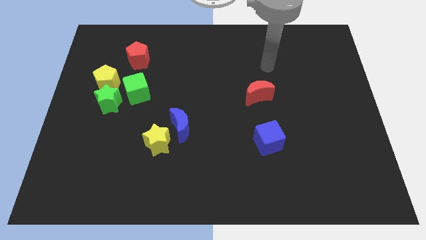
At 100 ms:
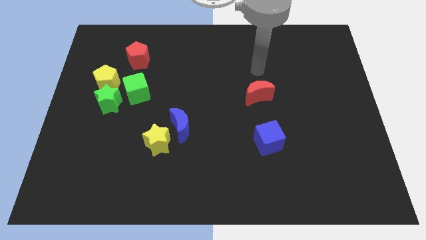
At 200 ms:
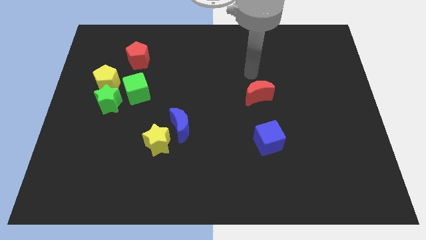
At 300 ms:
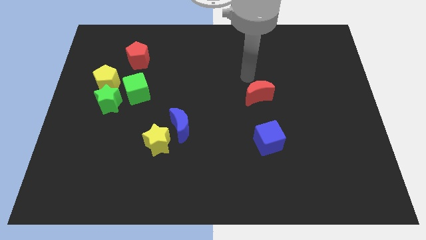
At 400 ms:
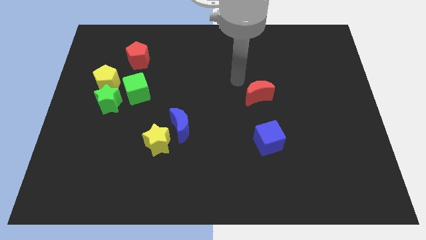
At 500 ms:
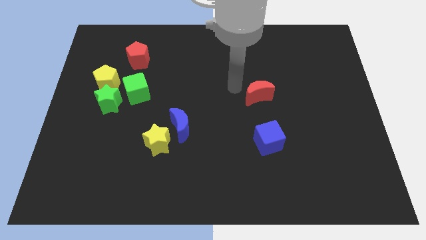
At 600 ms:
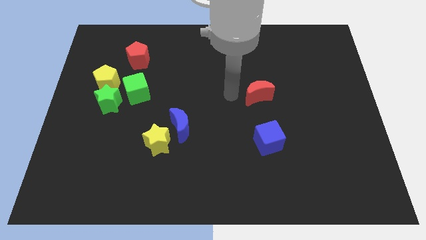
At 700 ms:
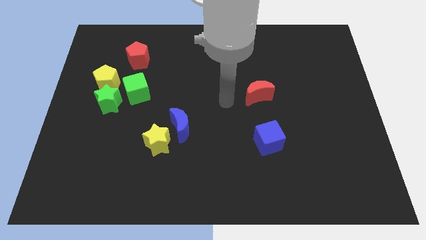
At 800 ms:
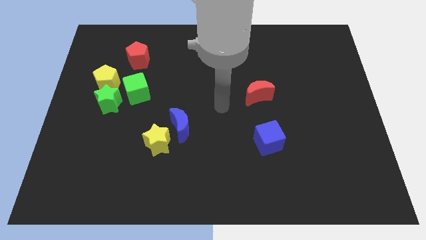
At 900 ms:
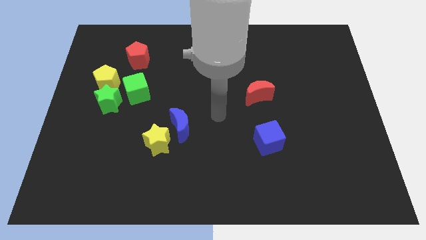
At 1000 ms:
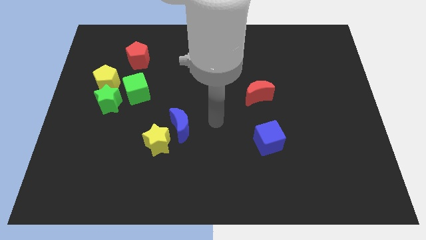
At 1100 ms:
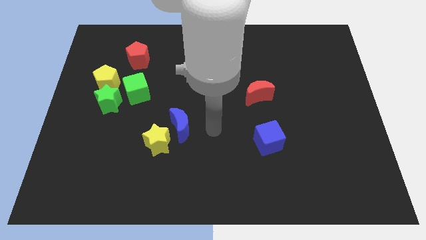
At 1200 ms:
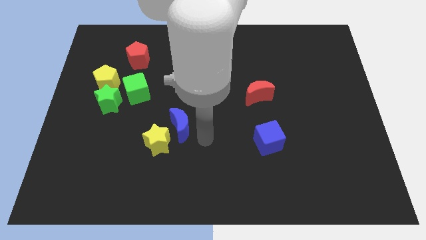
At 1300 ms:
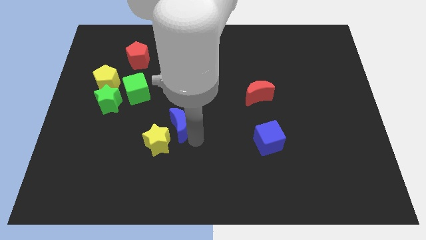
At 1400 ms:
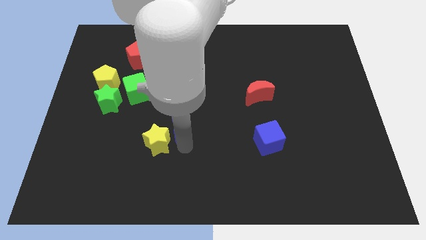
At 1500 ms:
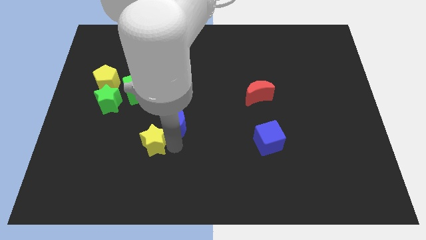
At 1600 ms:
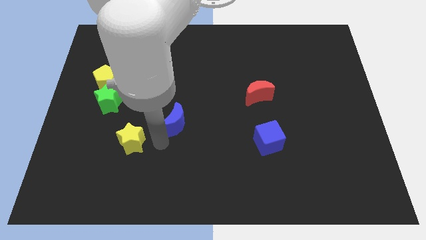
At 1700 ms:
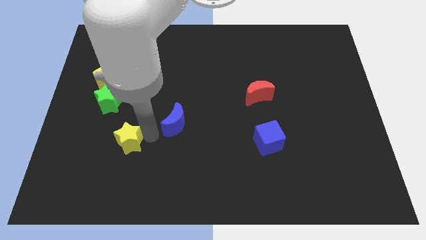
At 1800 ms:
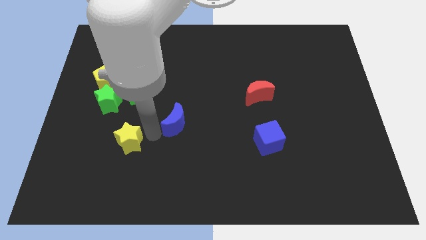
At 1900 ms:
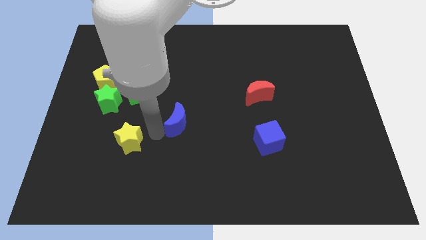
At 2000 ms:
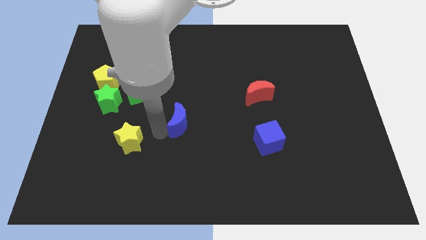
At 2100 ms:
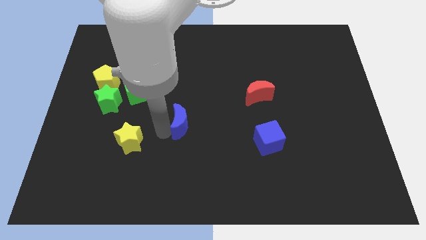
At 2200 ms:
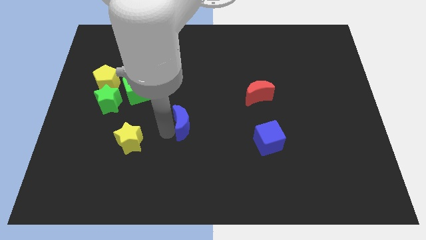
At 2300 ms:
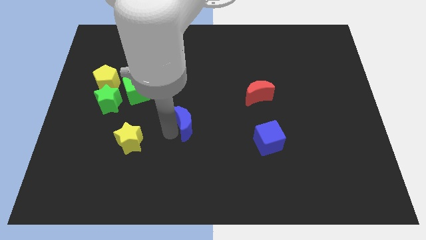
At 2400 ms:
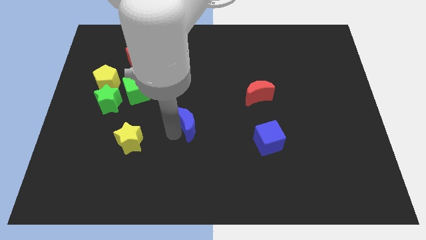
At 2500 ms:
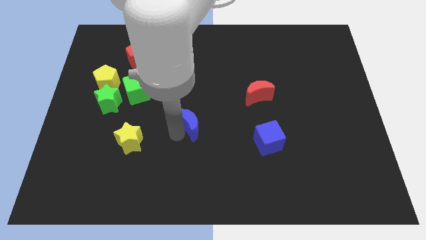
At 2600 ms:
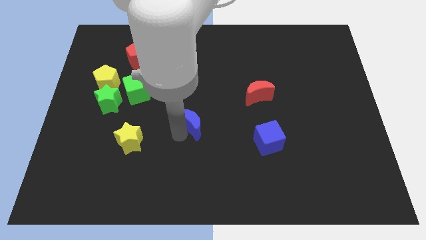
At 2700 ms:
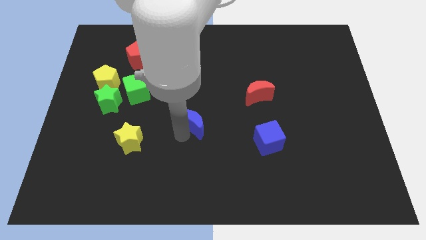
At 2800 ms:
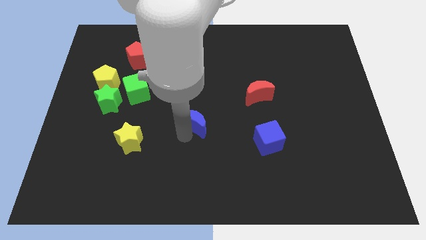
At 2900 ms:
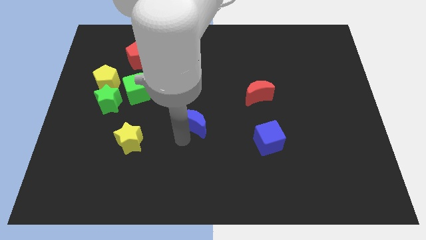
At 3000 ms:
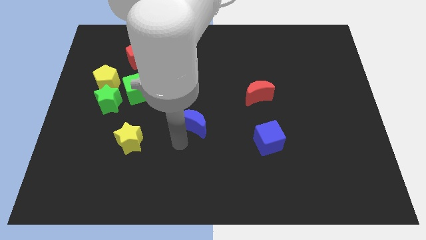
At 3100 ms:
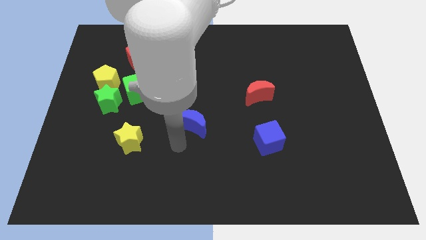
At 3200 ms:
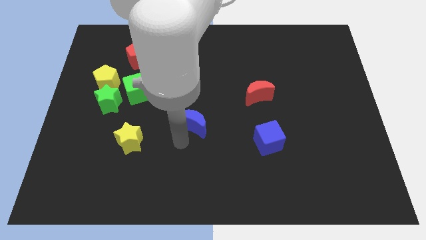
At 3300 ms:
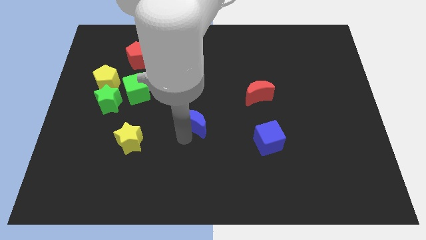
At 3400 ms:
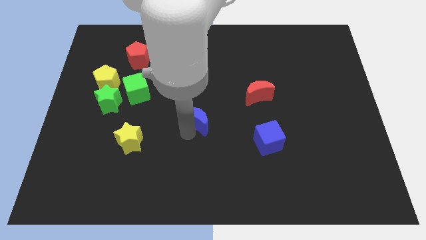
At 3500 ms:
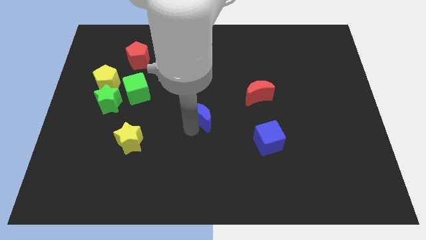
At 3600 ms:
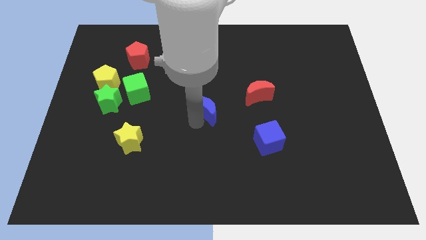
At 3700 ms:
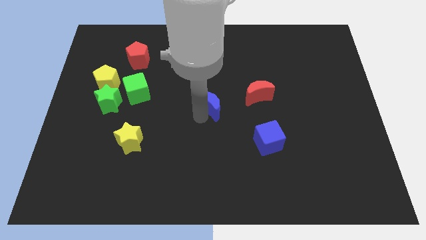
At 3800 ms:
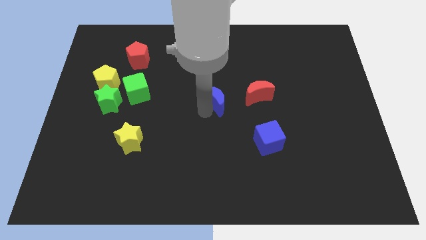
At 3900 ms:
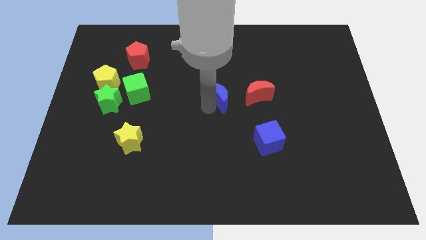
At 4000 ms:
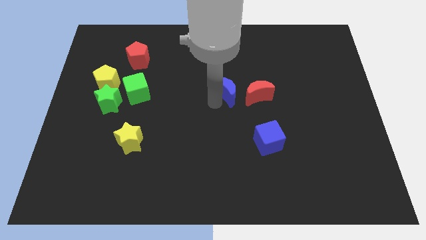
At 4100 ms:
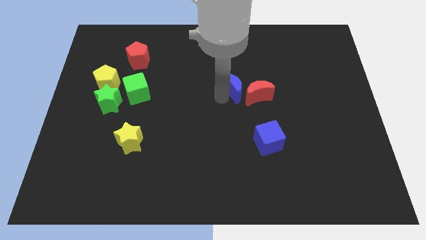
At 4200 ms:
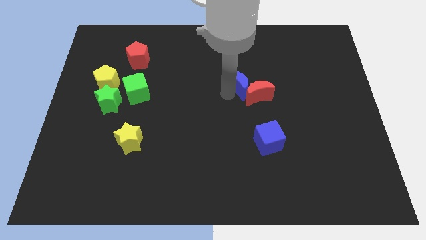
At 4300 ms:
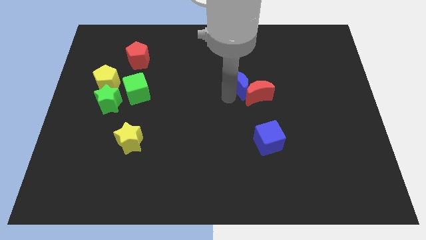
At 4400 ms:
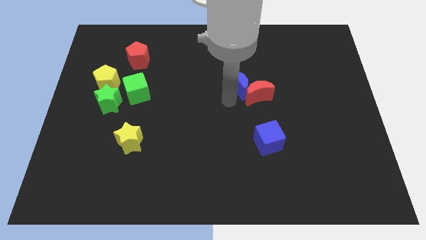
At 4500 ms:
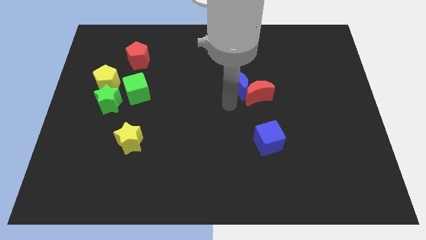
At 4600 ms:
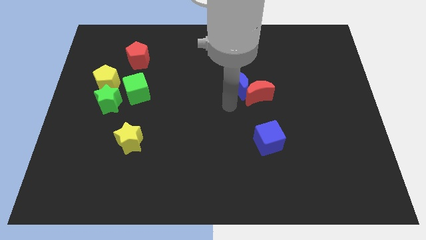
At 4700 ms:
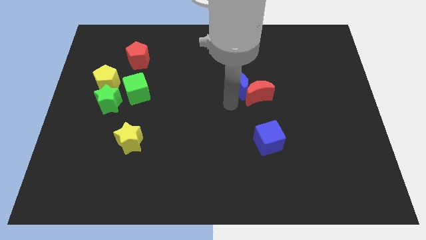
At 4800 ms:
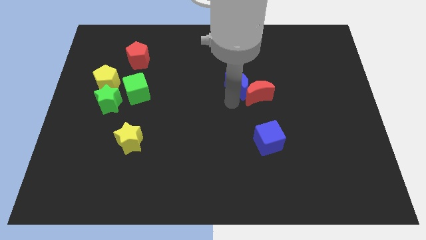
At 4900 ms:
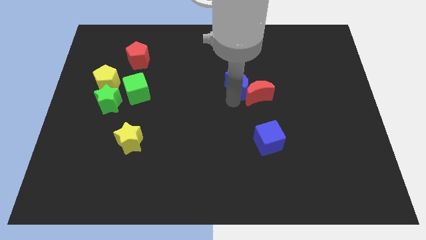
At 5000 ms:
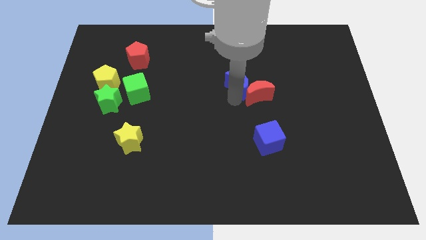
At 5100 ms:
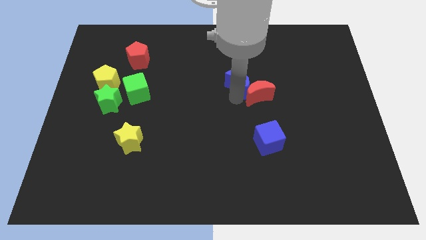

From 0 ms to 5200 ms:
move the blue moon to the top side of the red moon

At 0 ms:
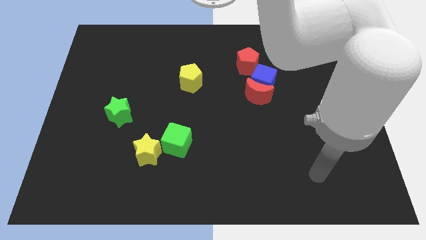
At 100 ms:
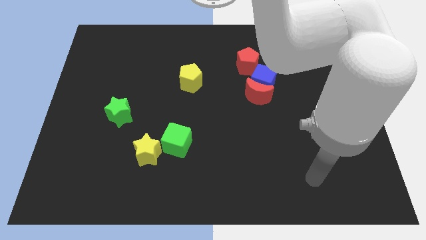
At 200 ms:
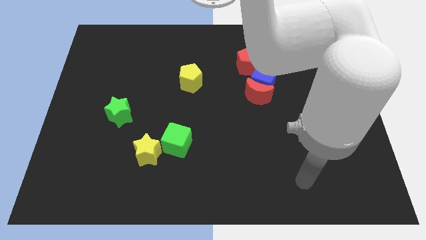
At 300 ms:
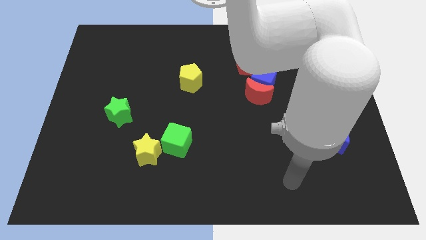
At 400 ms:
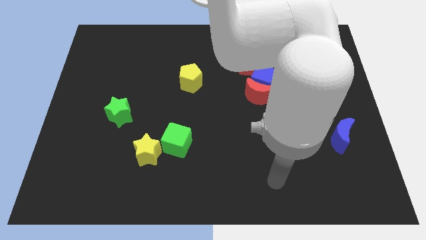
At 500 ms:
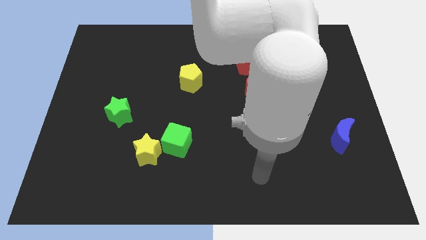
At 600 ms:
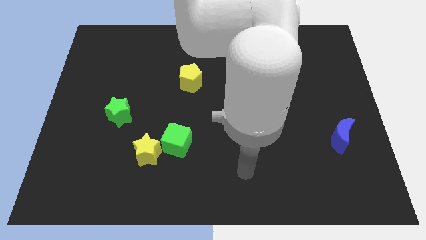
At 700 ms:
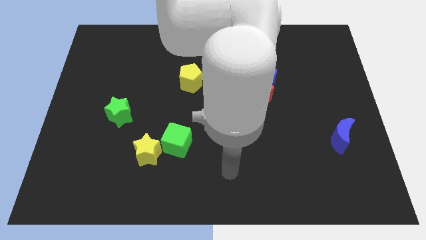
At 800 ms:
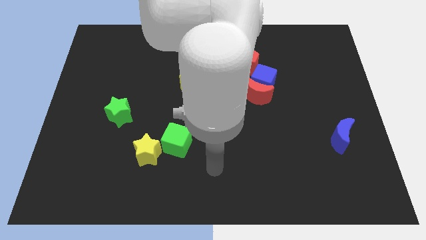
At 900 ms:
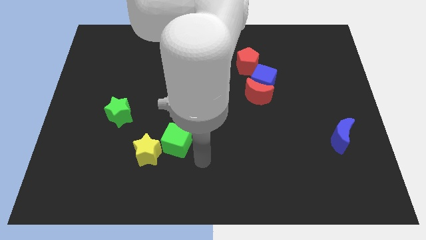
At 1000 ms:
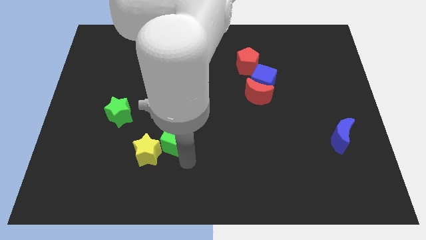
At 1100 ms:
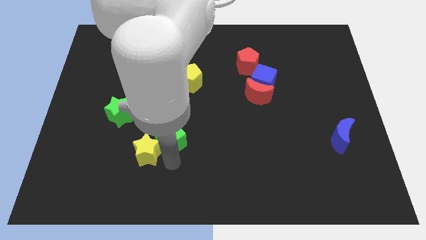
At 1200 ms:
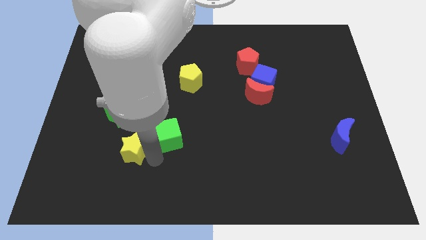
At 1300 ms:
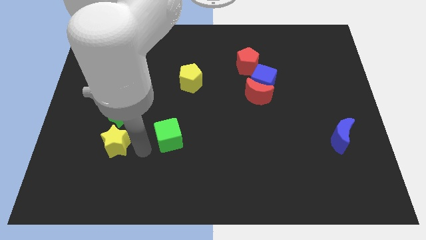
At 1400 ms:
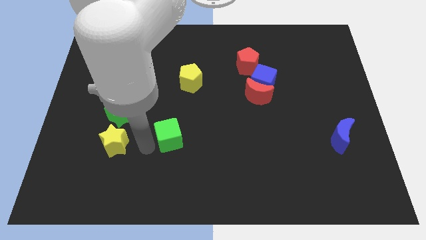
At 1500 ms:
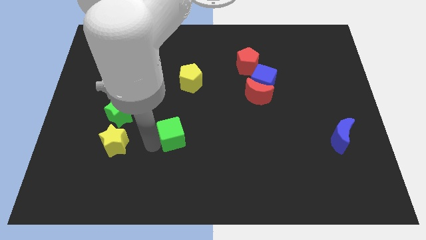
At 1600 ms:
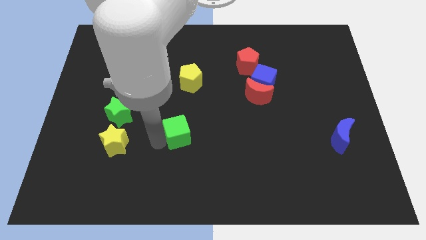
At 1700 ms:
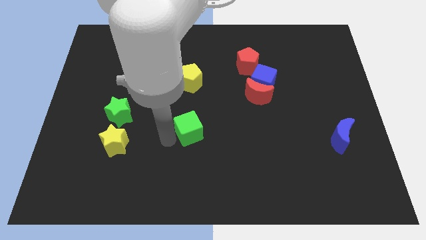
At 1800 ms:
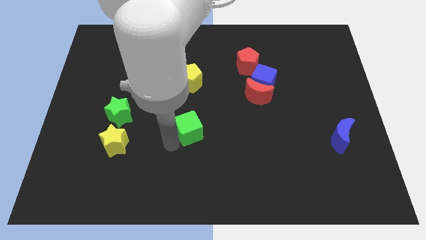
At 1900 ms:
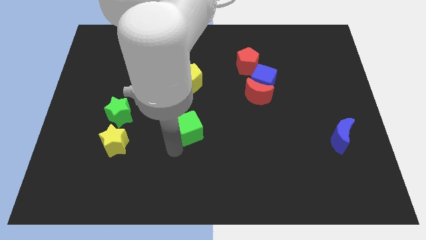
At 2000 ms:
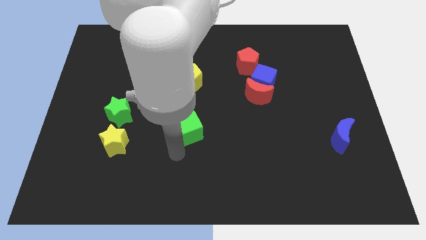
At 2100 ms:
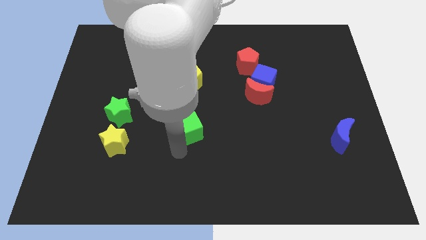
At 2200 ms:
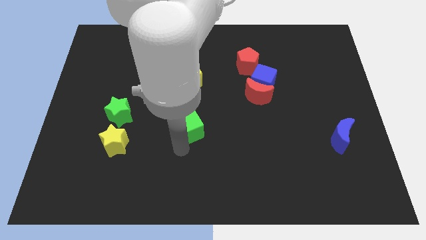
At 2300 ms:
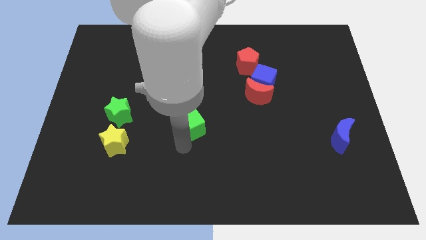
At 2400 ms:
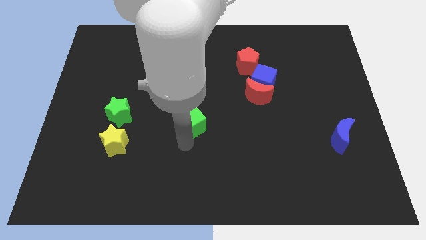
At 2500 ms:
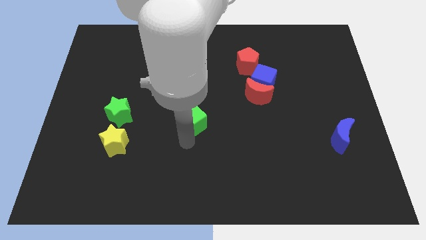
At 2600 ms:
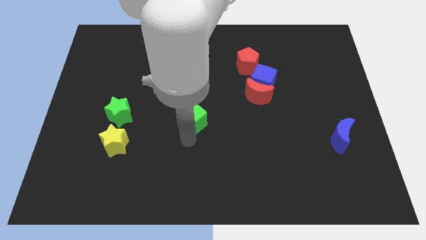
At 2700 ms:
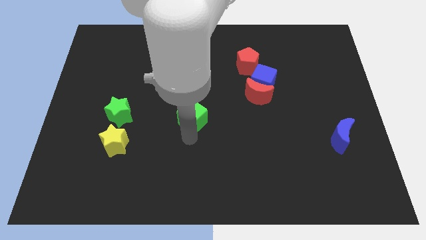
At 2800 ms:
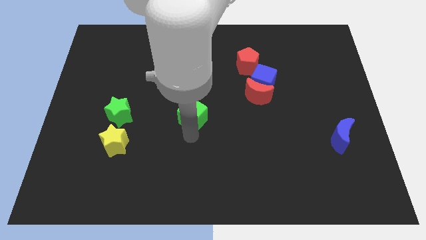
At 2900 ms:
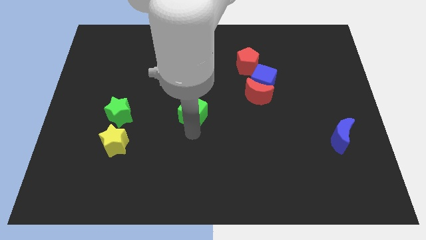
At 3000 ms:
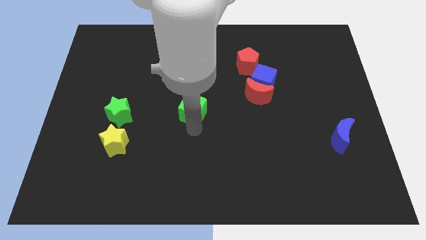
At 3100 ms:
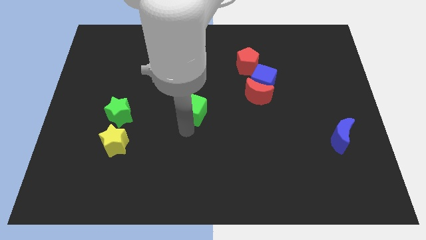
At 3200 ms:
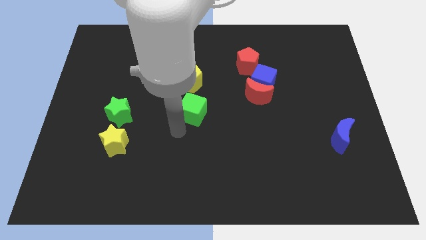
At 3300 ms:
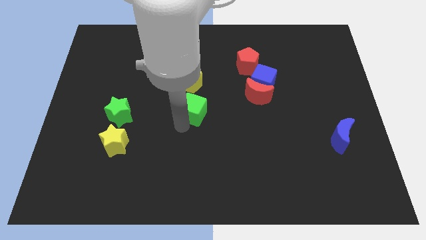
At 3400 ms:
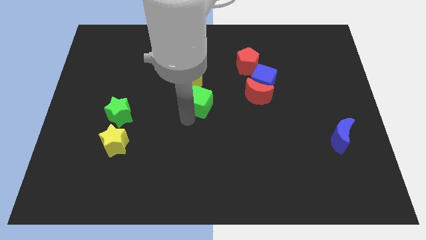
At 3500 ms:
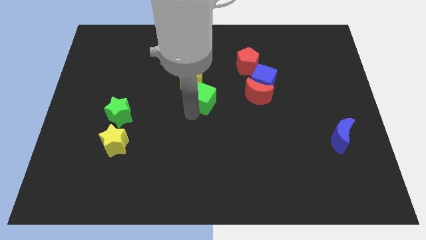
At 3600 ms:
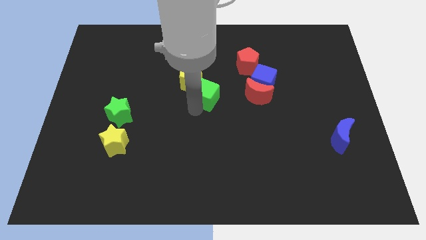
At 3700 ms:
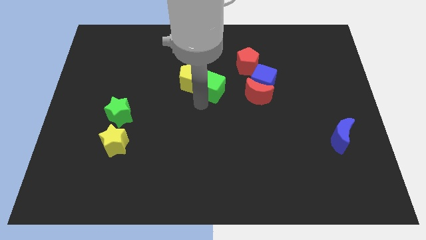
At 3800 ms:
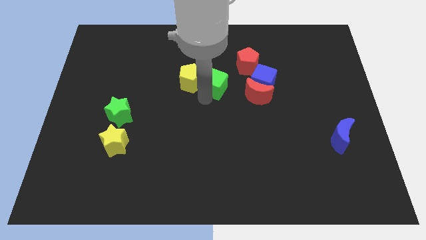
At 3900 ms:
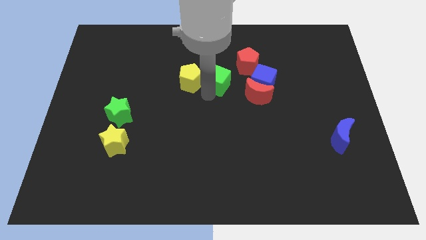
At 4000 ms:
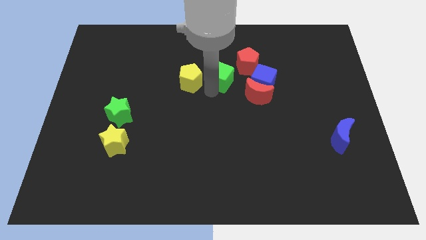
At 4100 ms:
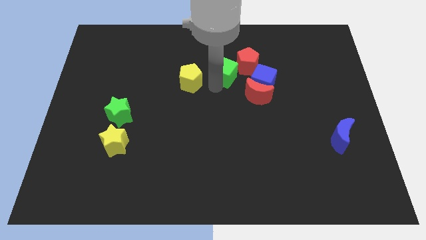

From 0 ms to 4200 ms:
put the green cube to the top left side of the blue cube
